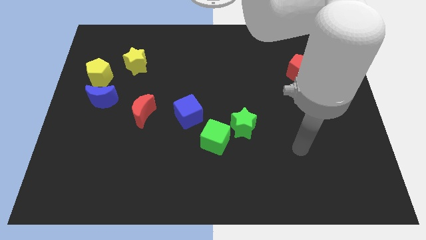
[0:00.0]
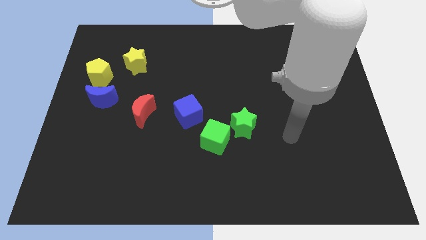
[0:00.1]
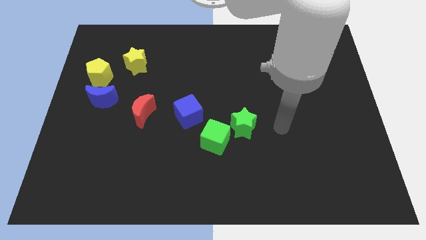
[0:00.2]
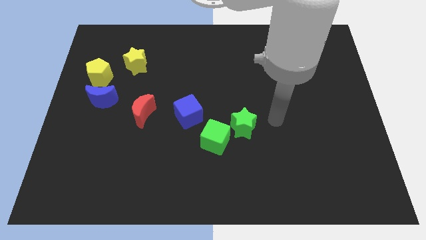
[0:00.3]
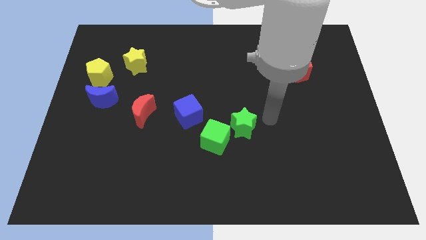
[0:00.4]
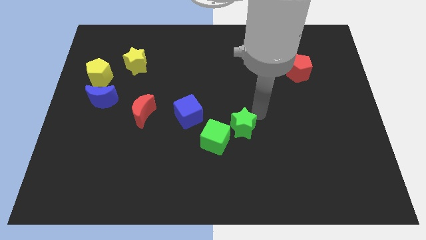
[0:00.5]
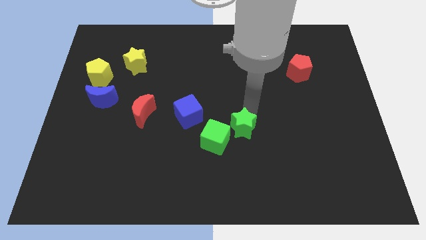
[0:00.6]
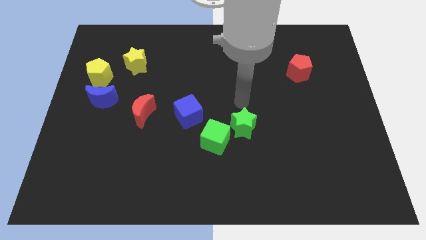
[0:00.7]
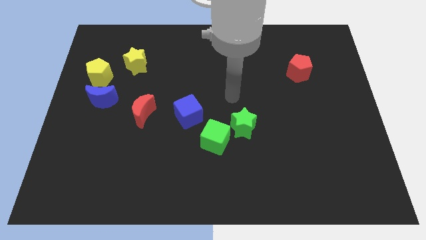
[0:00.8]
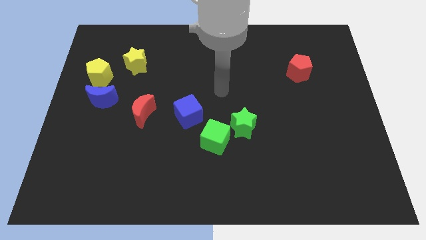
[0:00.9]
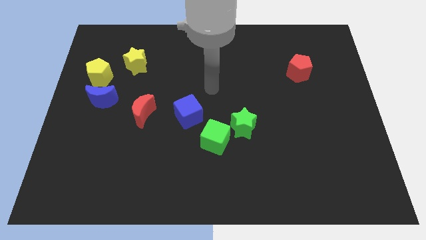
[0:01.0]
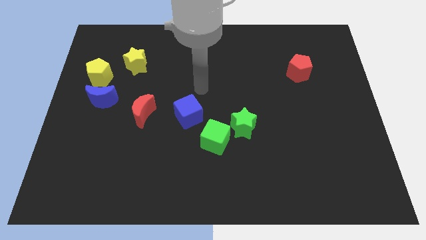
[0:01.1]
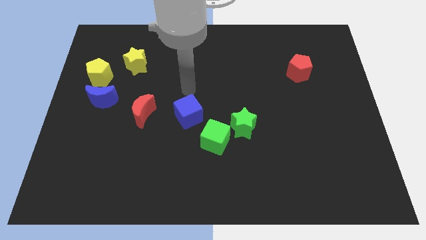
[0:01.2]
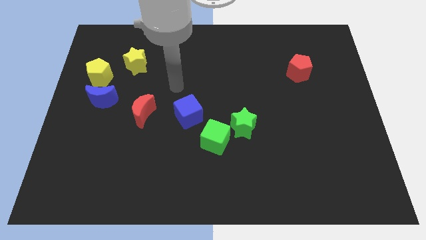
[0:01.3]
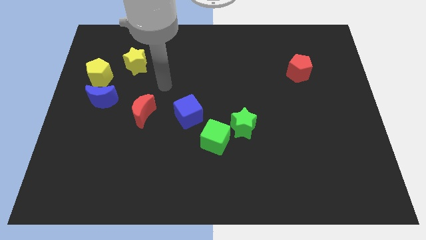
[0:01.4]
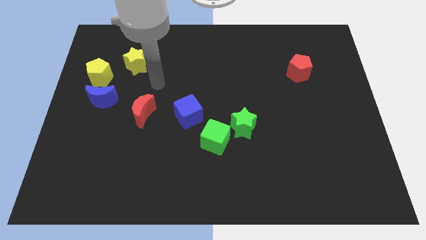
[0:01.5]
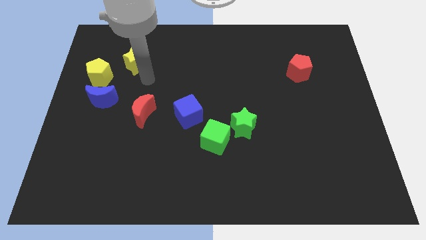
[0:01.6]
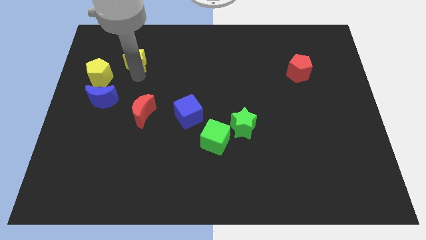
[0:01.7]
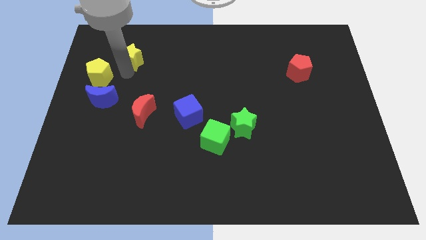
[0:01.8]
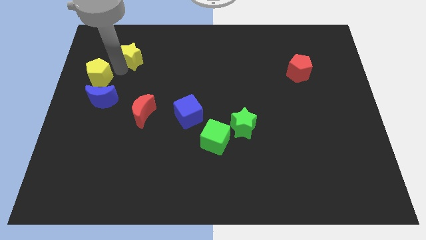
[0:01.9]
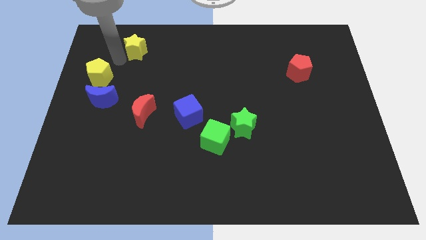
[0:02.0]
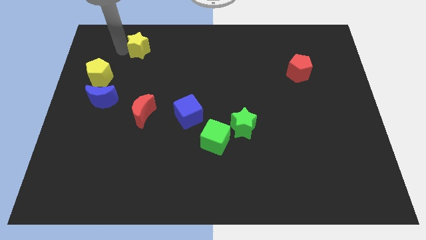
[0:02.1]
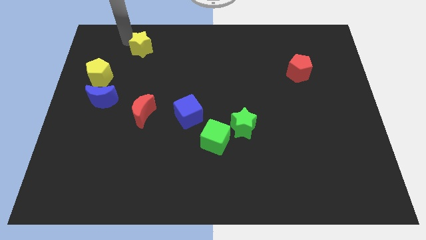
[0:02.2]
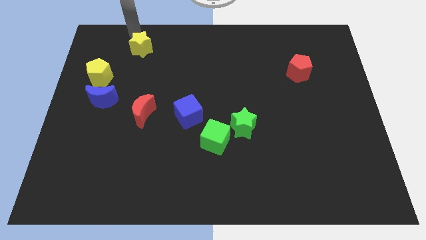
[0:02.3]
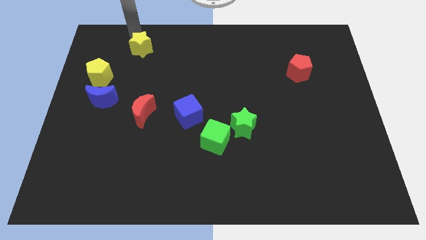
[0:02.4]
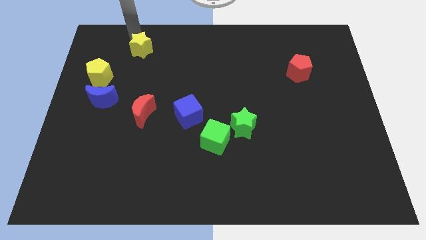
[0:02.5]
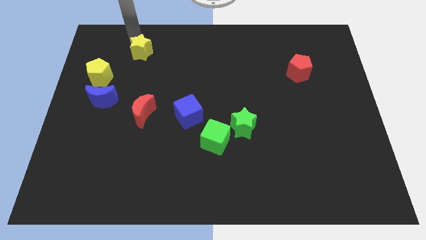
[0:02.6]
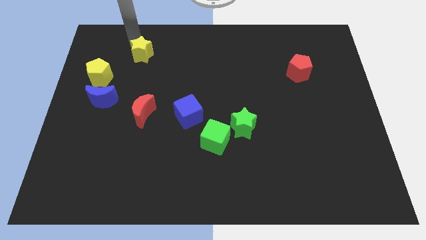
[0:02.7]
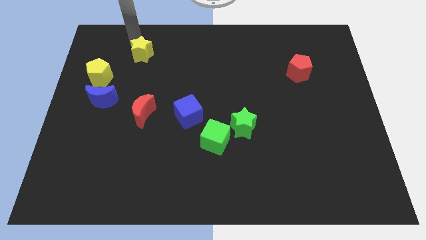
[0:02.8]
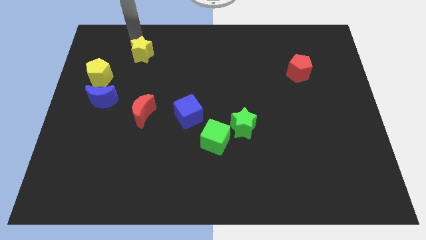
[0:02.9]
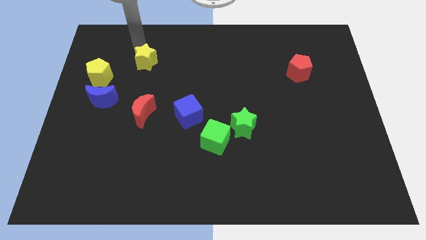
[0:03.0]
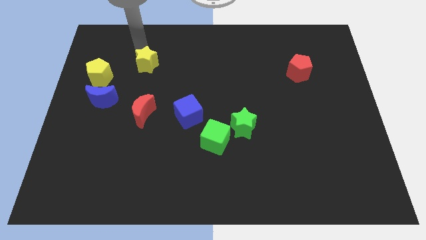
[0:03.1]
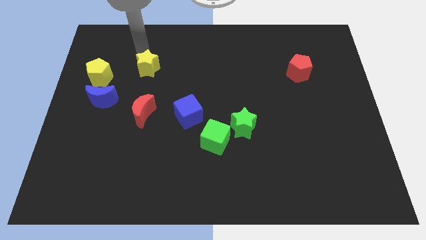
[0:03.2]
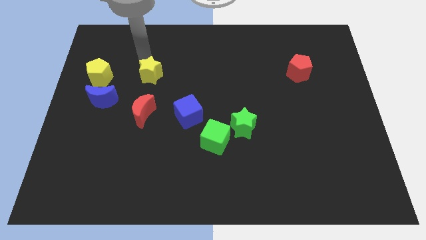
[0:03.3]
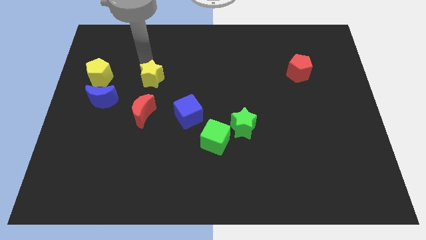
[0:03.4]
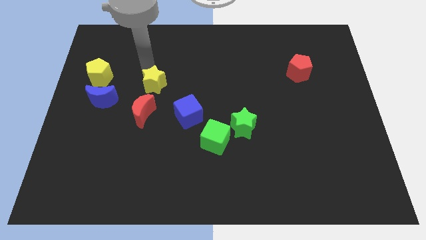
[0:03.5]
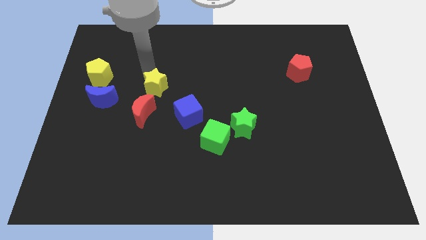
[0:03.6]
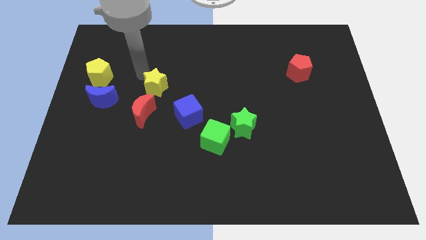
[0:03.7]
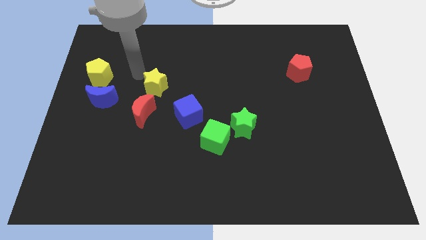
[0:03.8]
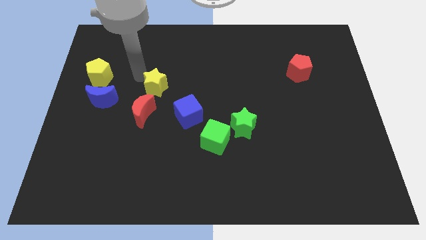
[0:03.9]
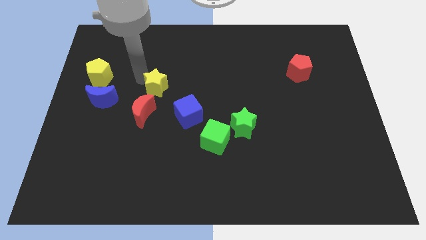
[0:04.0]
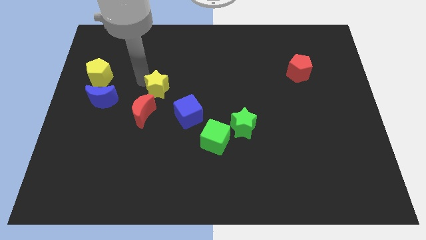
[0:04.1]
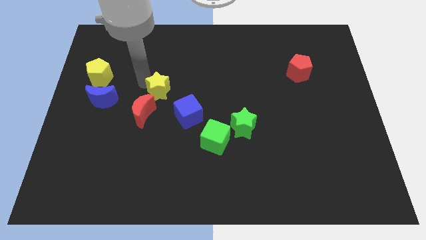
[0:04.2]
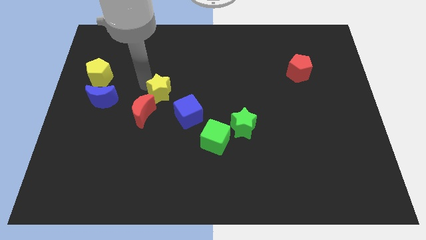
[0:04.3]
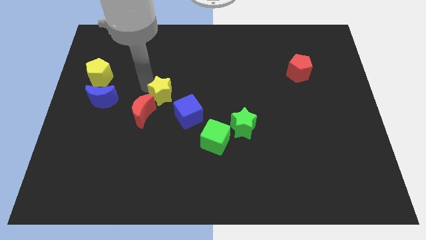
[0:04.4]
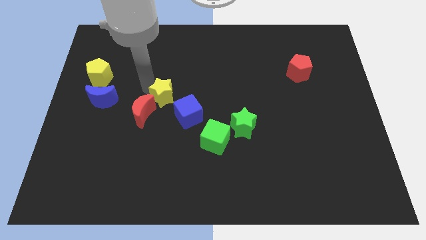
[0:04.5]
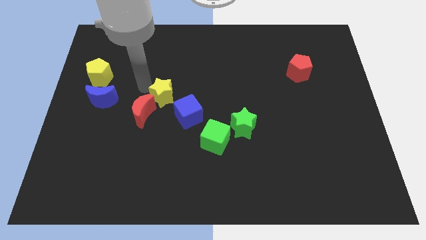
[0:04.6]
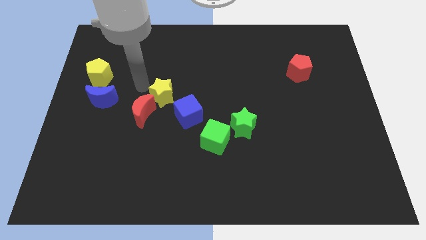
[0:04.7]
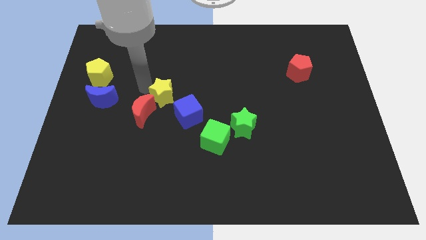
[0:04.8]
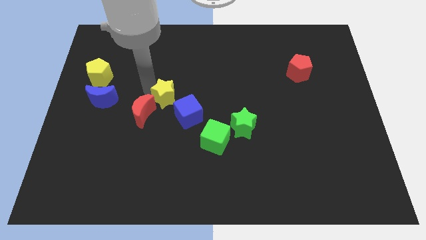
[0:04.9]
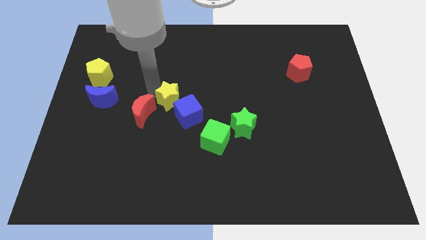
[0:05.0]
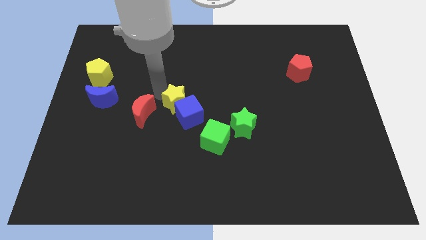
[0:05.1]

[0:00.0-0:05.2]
slide the yellow star to the blue cube
